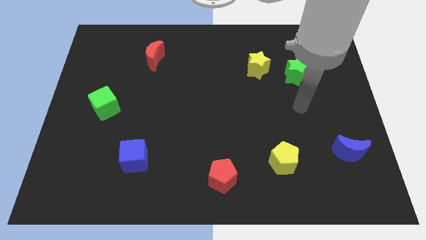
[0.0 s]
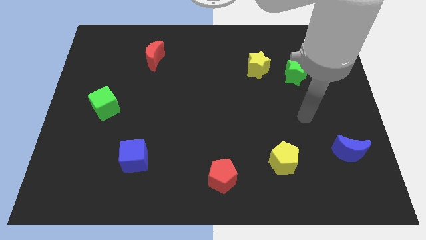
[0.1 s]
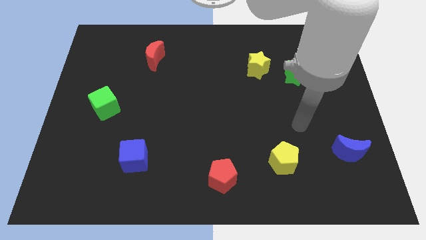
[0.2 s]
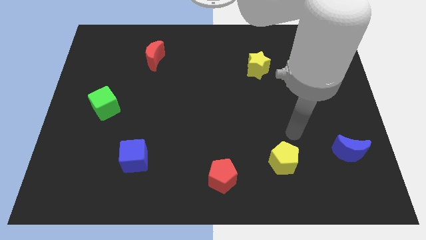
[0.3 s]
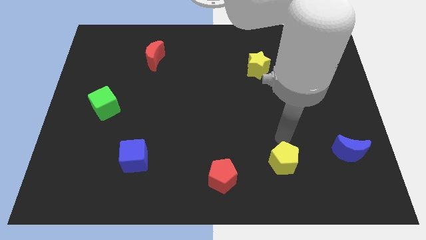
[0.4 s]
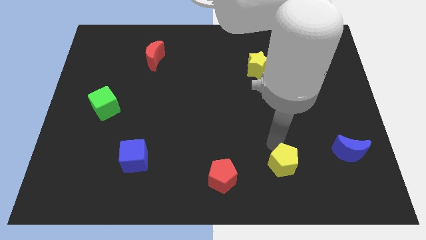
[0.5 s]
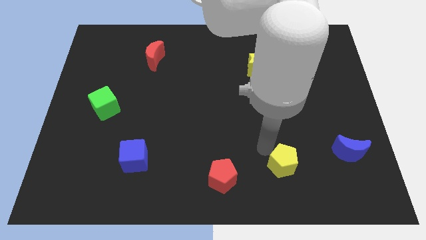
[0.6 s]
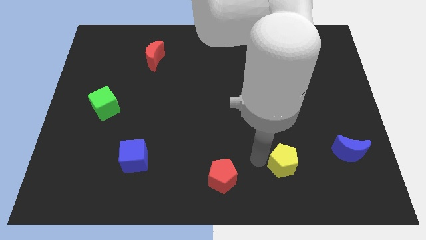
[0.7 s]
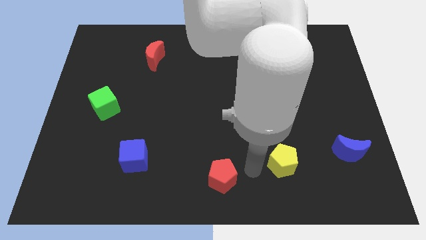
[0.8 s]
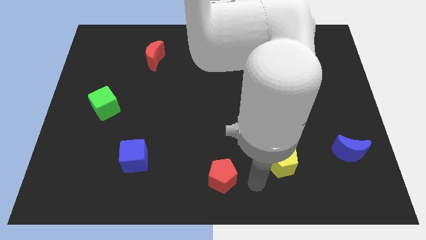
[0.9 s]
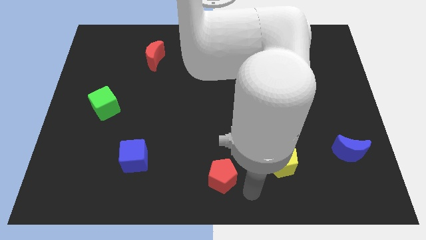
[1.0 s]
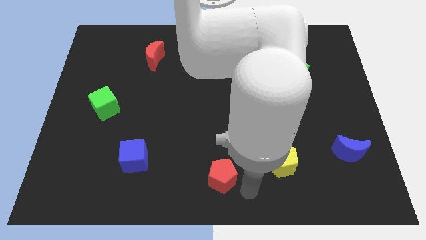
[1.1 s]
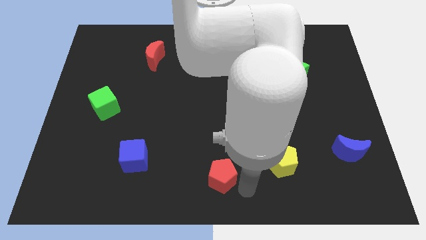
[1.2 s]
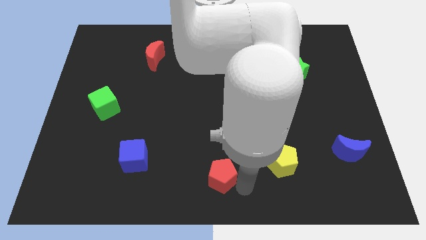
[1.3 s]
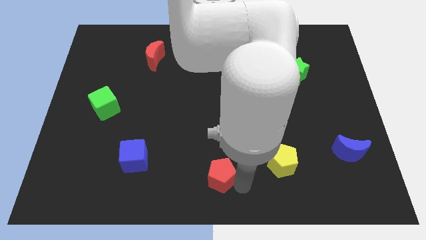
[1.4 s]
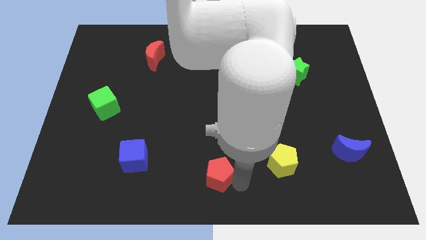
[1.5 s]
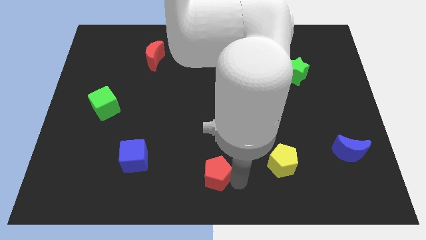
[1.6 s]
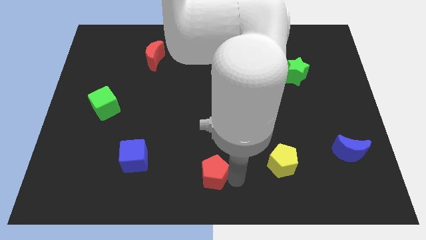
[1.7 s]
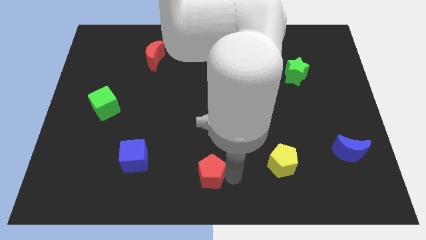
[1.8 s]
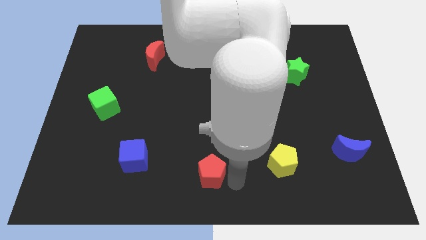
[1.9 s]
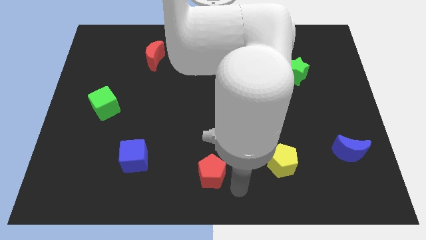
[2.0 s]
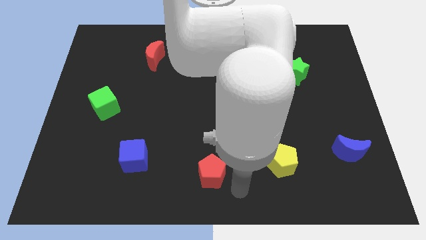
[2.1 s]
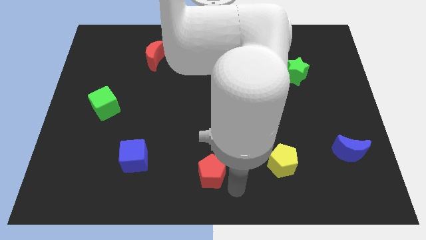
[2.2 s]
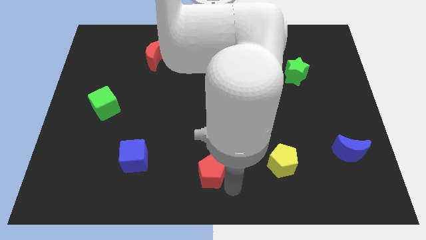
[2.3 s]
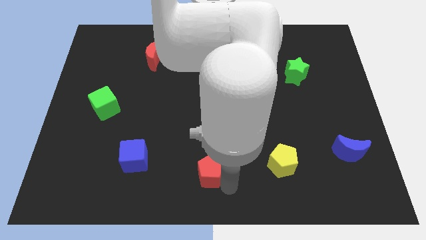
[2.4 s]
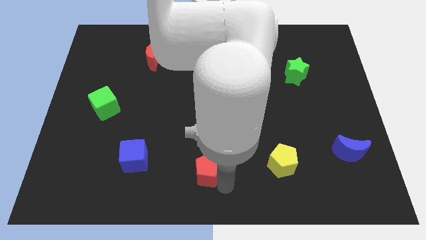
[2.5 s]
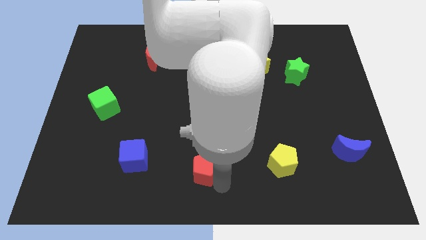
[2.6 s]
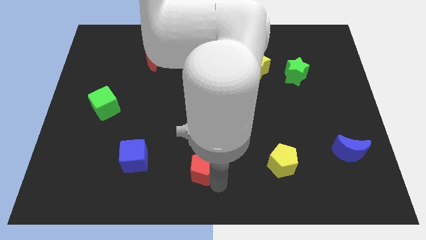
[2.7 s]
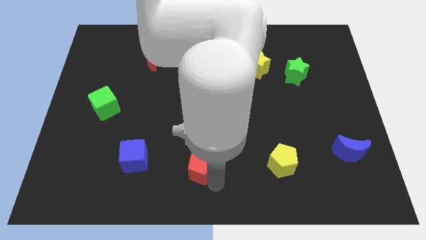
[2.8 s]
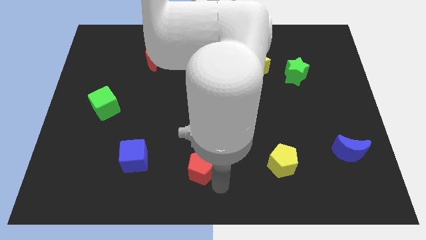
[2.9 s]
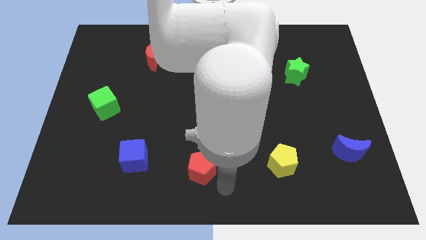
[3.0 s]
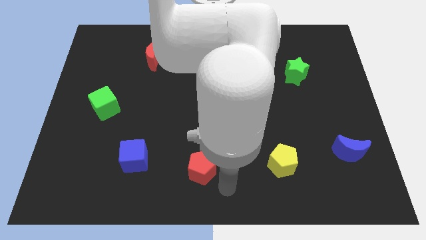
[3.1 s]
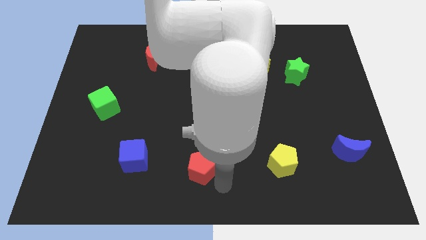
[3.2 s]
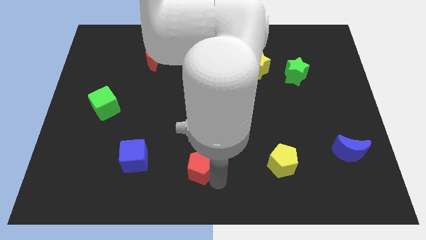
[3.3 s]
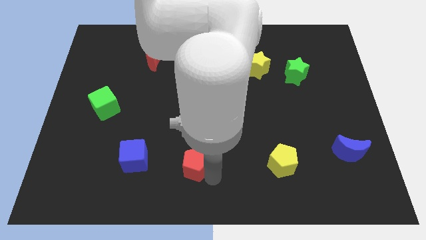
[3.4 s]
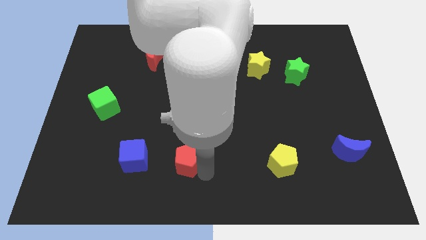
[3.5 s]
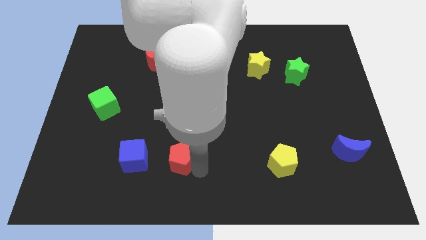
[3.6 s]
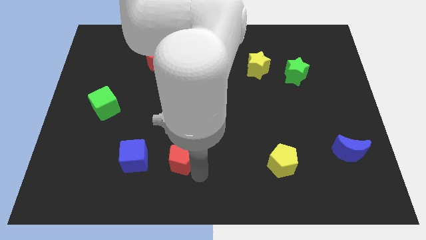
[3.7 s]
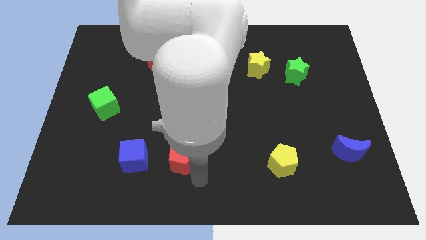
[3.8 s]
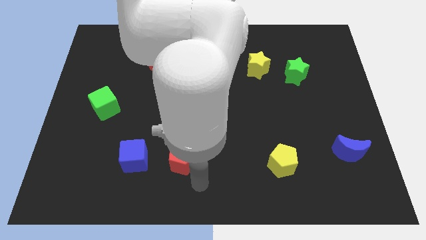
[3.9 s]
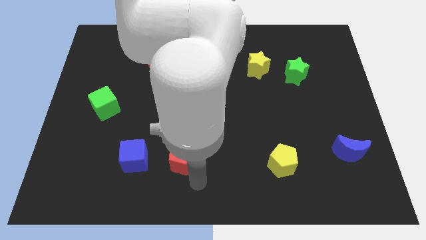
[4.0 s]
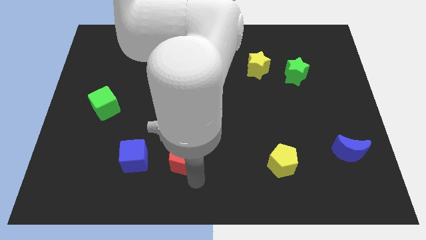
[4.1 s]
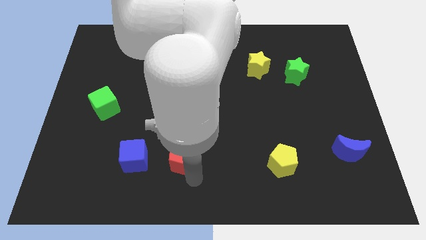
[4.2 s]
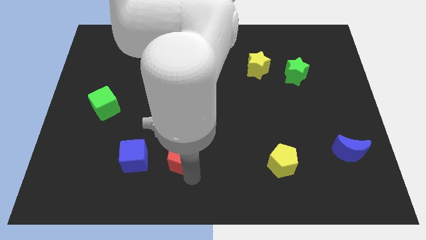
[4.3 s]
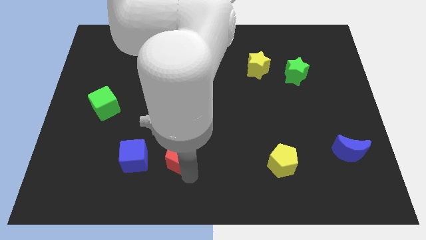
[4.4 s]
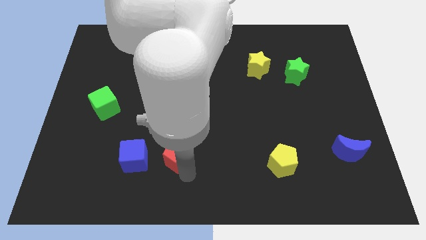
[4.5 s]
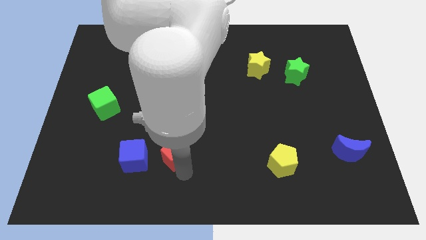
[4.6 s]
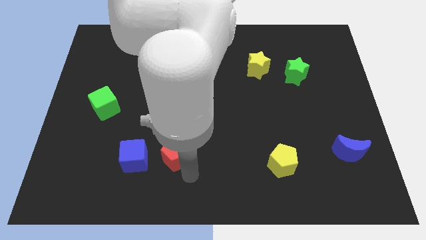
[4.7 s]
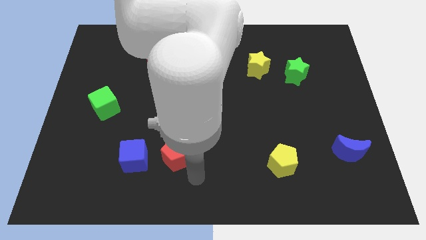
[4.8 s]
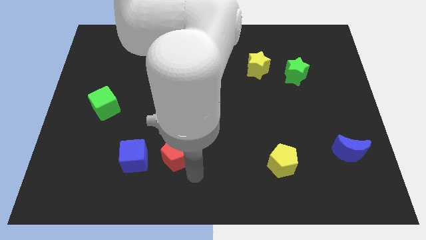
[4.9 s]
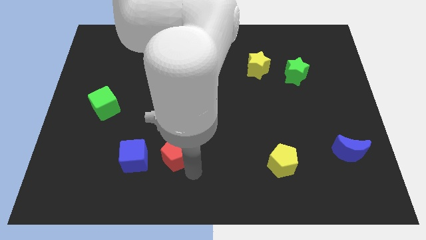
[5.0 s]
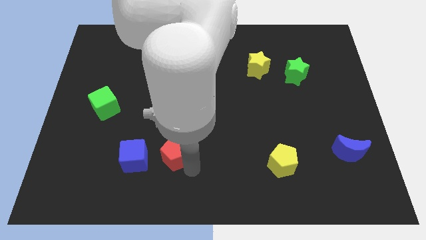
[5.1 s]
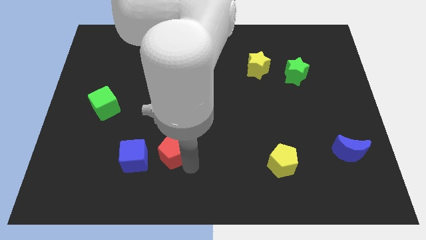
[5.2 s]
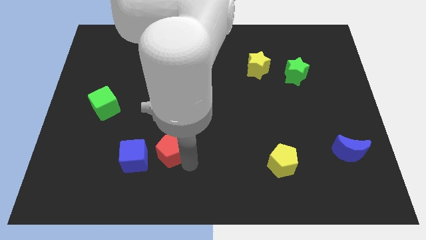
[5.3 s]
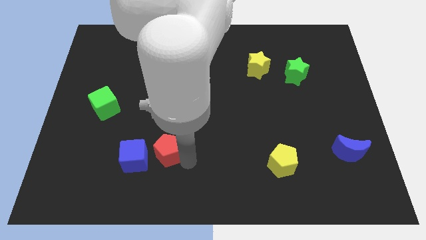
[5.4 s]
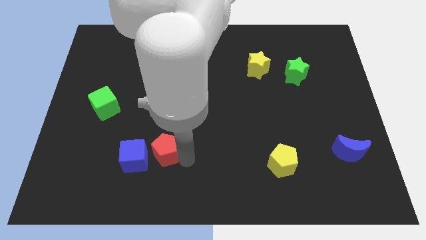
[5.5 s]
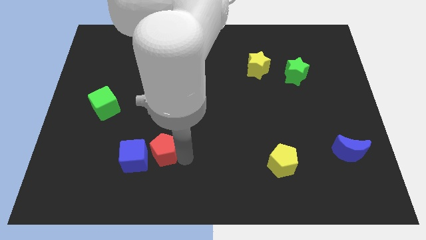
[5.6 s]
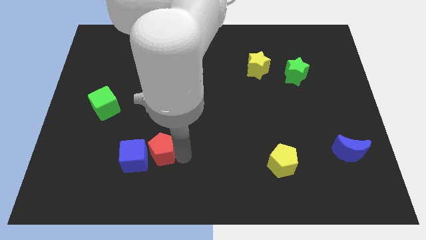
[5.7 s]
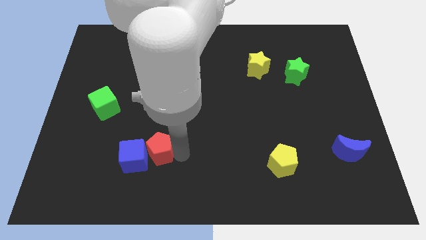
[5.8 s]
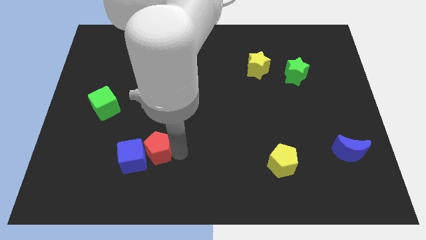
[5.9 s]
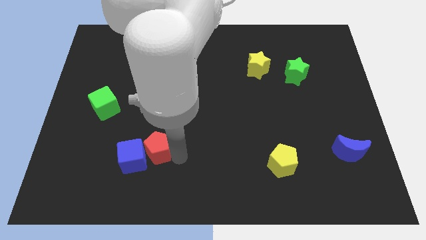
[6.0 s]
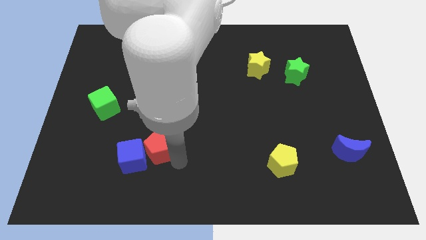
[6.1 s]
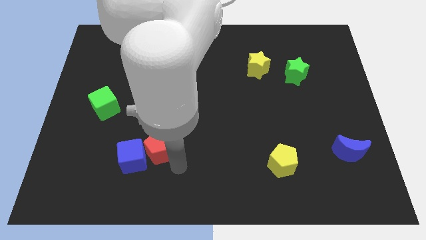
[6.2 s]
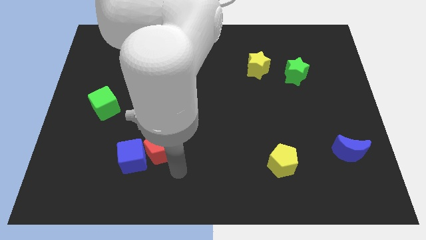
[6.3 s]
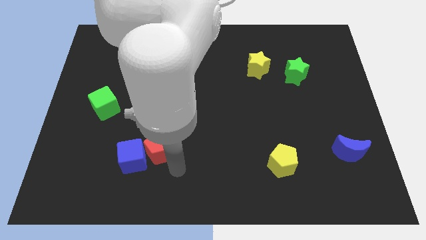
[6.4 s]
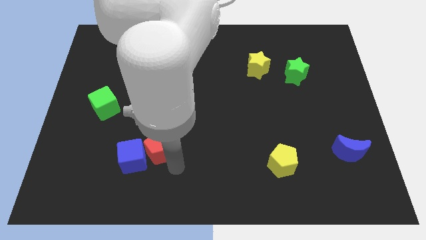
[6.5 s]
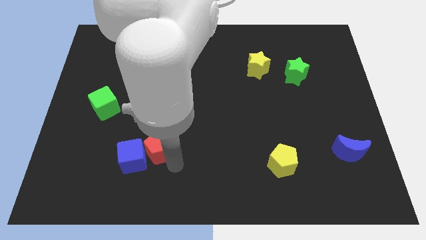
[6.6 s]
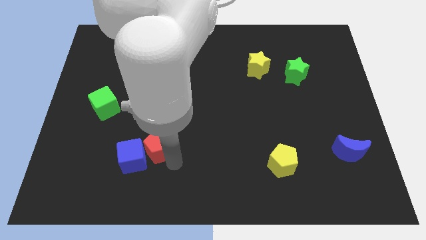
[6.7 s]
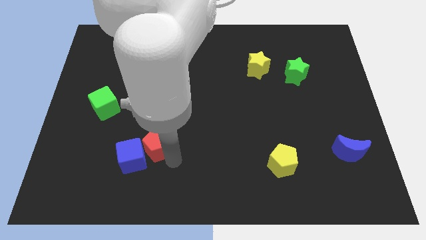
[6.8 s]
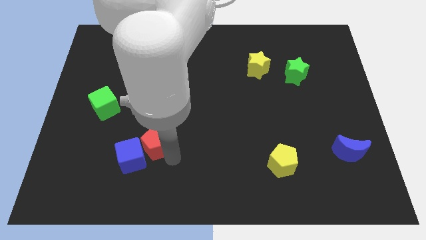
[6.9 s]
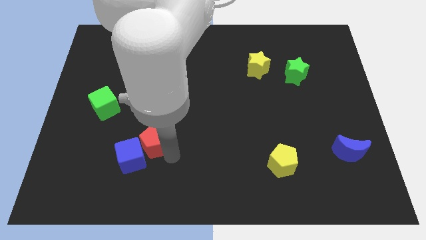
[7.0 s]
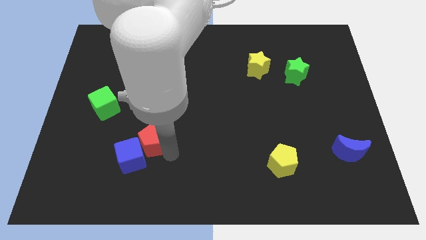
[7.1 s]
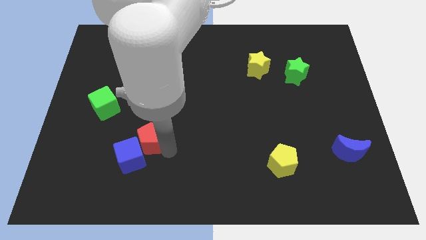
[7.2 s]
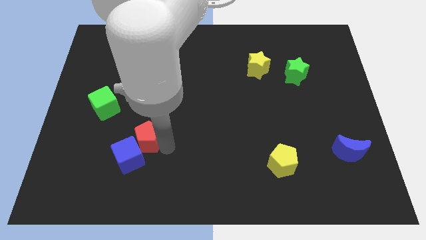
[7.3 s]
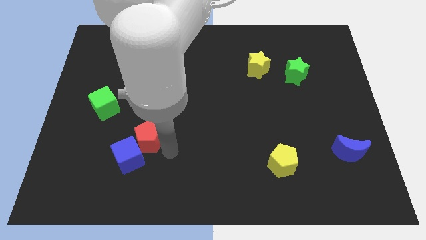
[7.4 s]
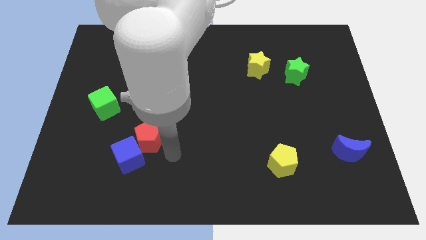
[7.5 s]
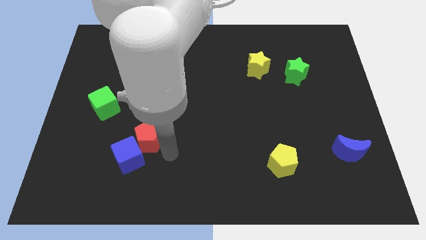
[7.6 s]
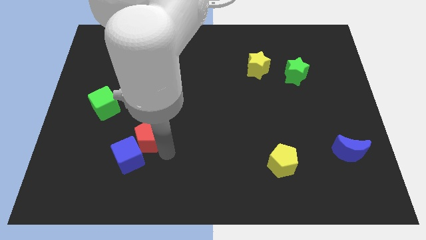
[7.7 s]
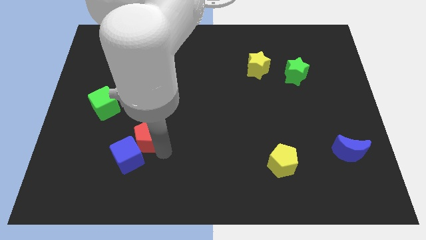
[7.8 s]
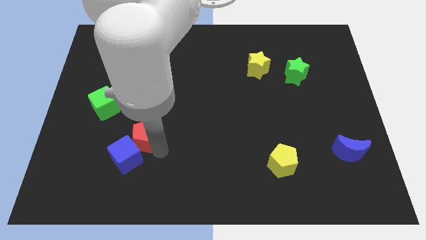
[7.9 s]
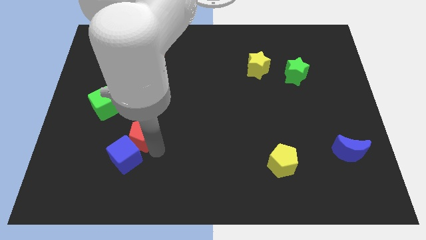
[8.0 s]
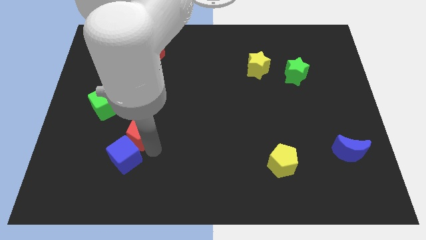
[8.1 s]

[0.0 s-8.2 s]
move the red pentagon diagonally down and to the right of the green cube
